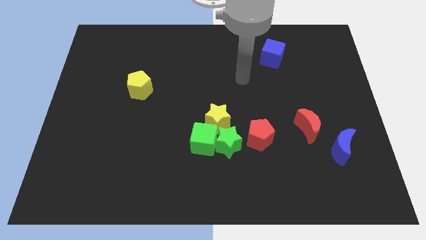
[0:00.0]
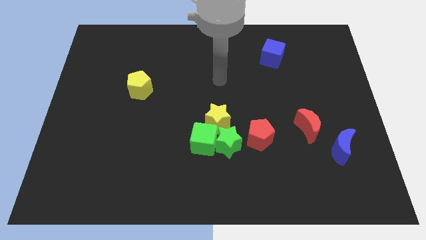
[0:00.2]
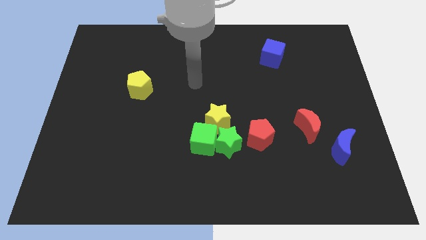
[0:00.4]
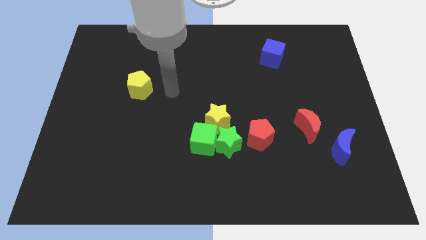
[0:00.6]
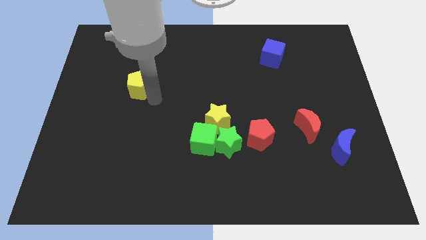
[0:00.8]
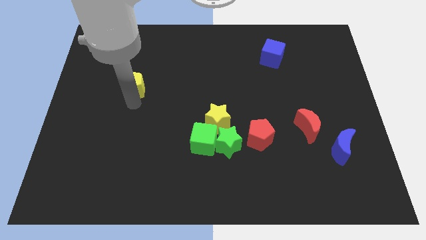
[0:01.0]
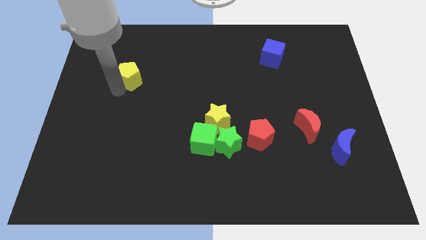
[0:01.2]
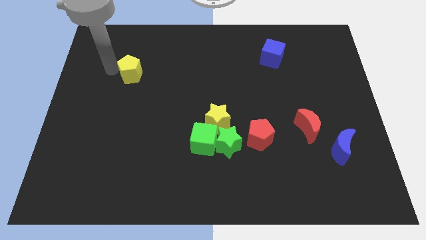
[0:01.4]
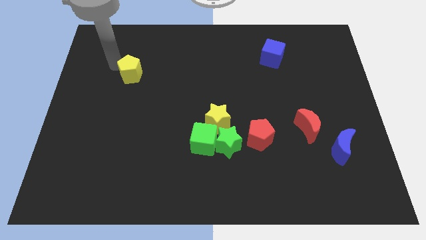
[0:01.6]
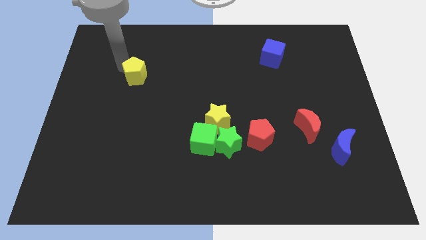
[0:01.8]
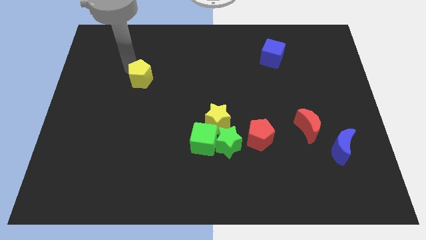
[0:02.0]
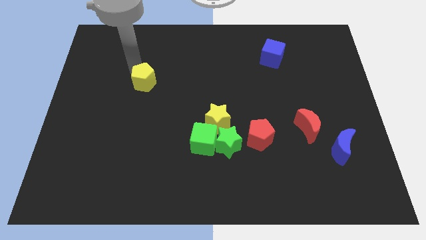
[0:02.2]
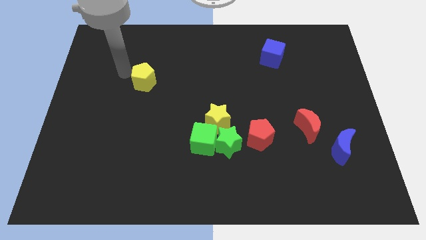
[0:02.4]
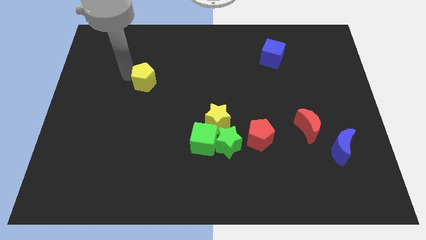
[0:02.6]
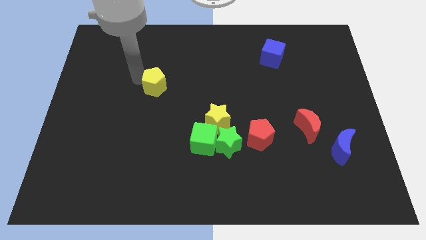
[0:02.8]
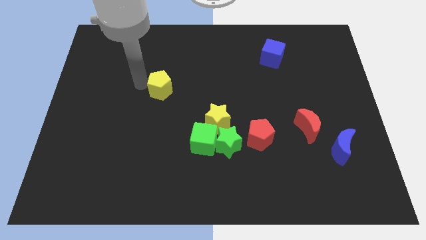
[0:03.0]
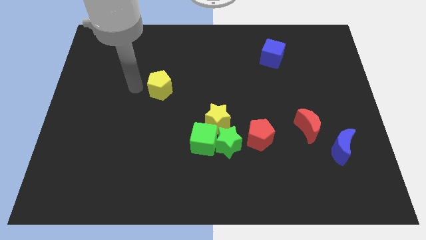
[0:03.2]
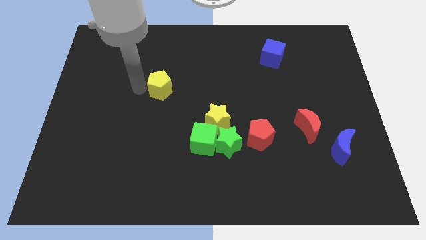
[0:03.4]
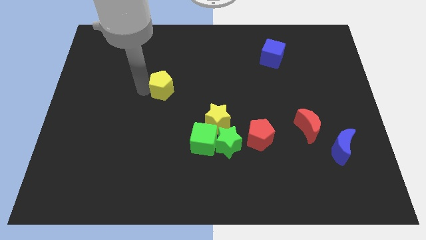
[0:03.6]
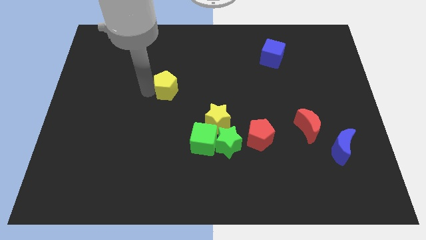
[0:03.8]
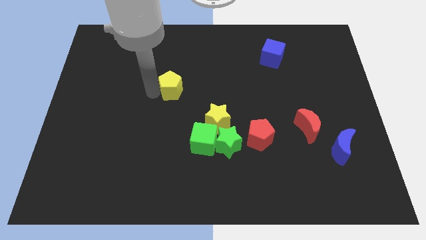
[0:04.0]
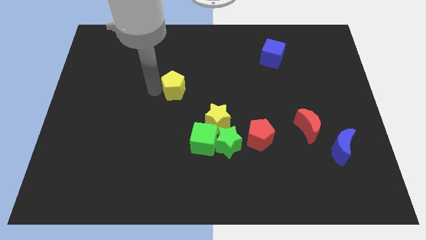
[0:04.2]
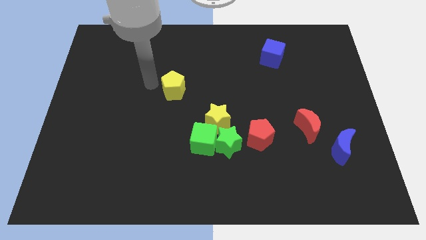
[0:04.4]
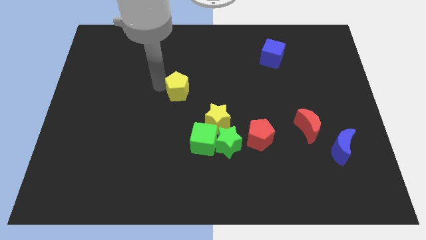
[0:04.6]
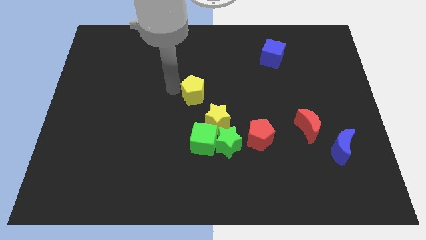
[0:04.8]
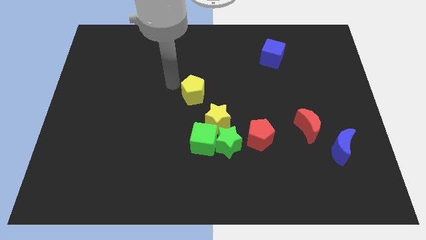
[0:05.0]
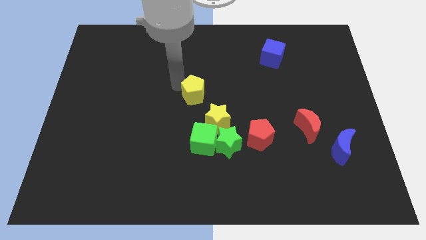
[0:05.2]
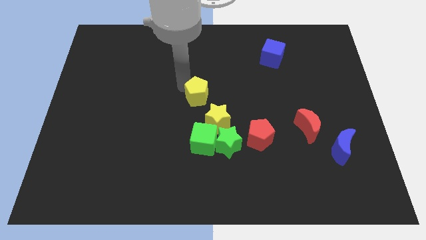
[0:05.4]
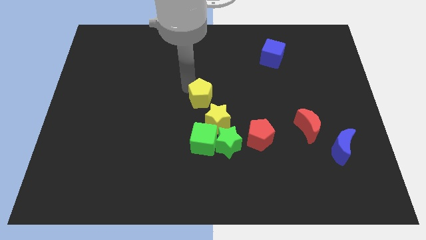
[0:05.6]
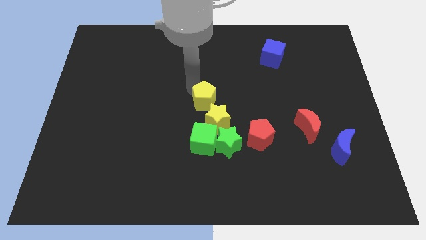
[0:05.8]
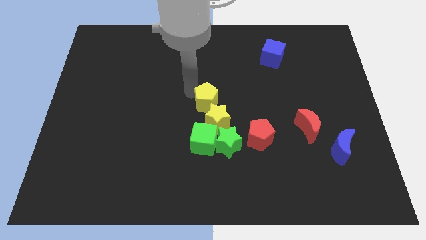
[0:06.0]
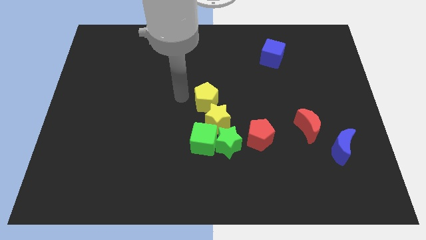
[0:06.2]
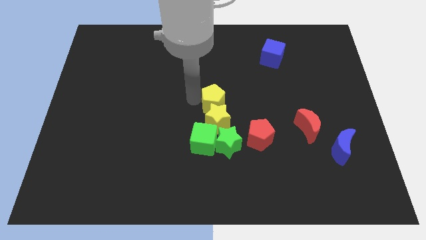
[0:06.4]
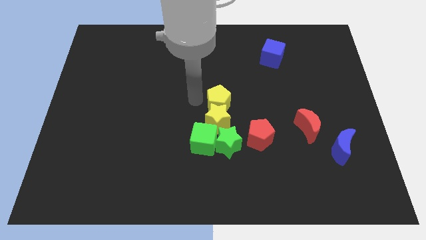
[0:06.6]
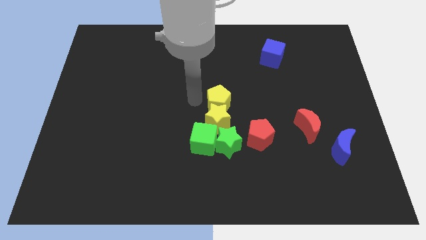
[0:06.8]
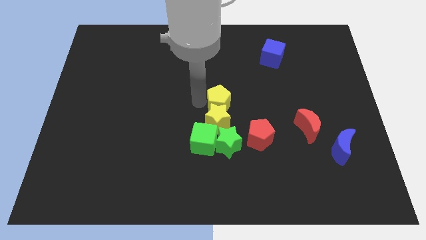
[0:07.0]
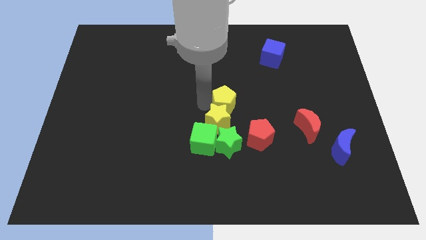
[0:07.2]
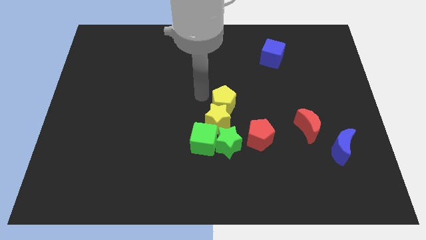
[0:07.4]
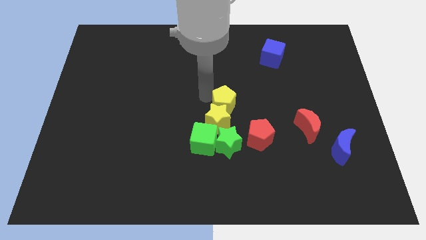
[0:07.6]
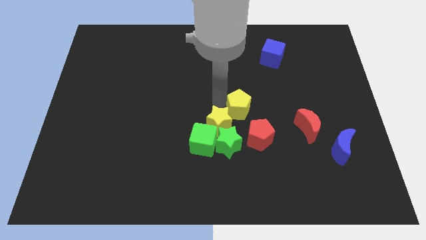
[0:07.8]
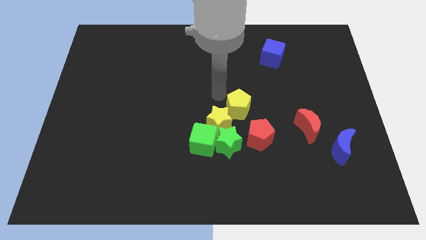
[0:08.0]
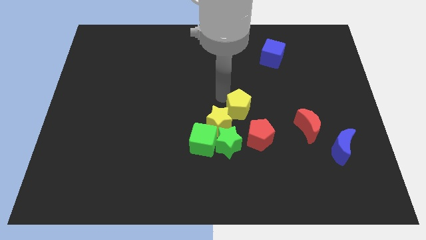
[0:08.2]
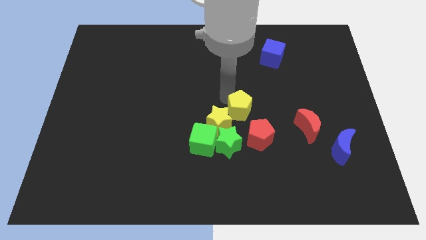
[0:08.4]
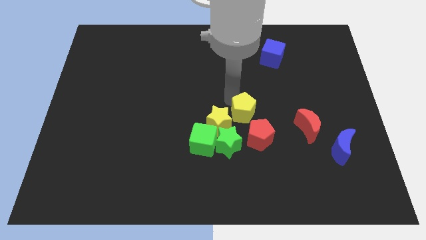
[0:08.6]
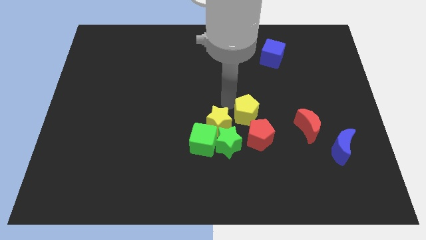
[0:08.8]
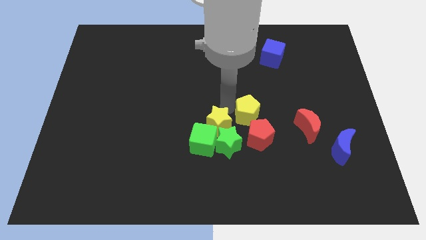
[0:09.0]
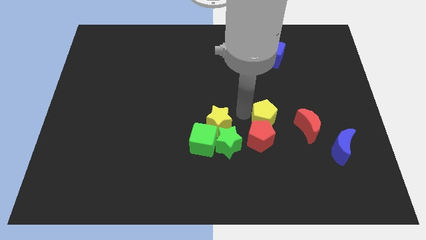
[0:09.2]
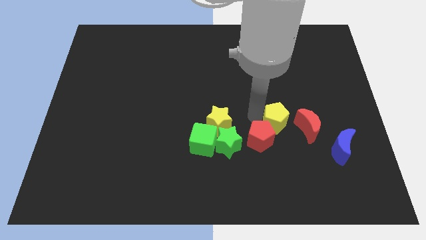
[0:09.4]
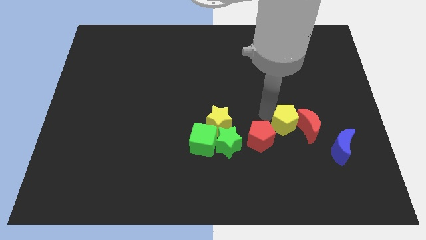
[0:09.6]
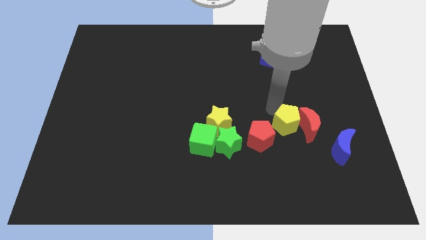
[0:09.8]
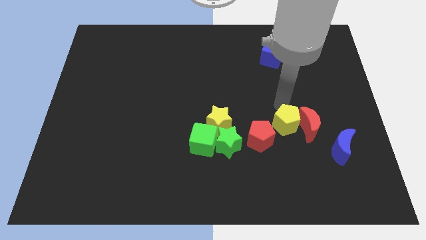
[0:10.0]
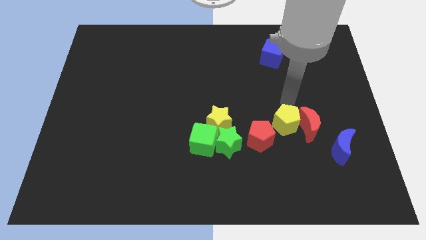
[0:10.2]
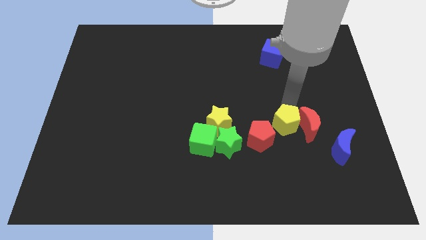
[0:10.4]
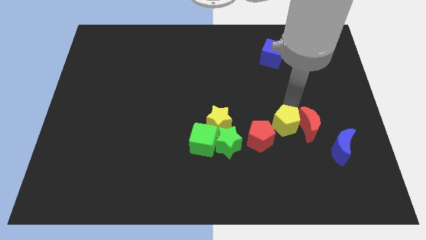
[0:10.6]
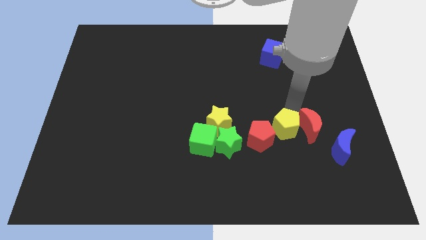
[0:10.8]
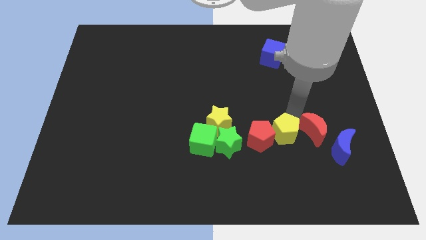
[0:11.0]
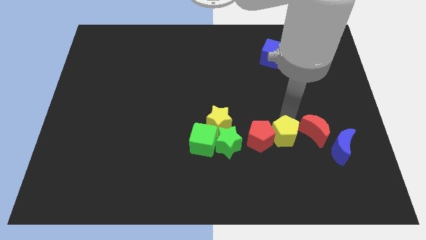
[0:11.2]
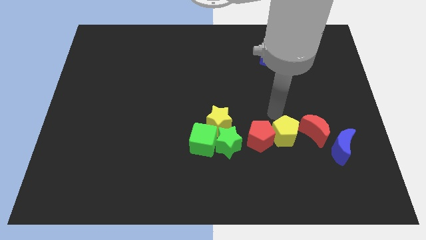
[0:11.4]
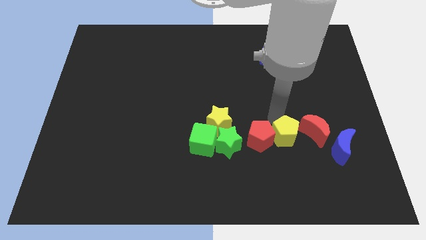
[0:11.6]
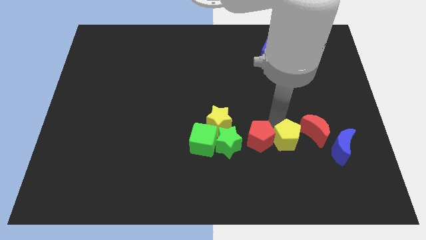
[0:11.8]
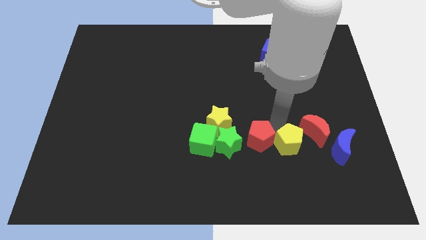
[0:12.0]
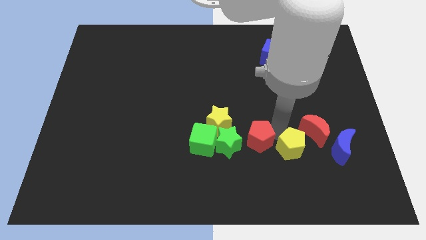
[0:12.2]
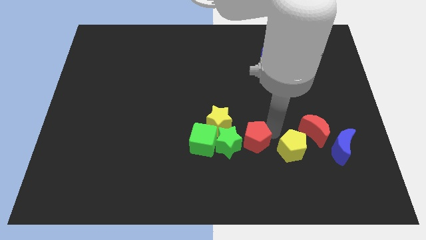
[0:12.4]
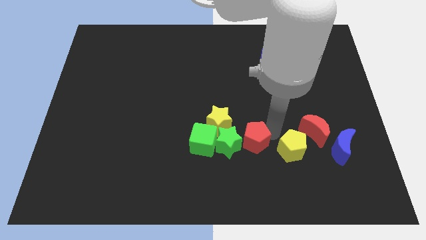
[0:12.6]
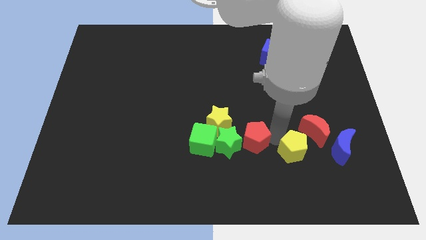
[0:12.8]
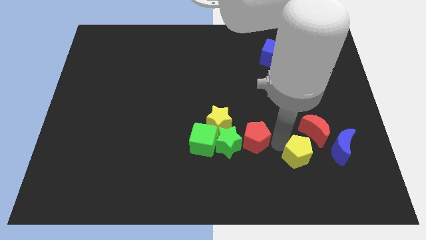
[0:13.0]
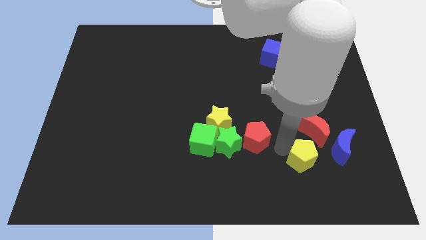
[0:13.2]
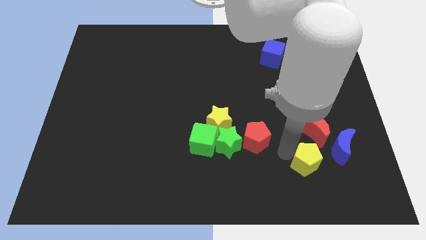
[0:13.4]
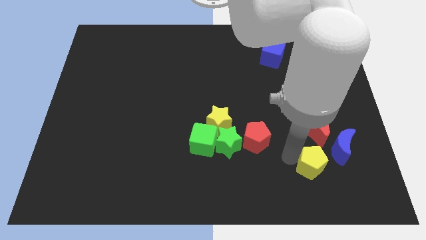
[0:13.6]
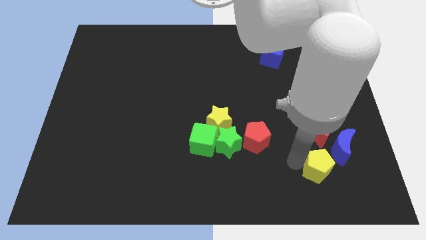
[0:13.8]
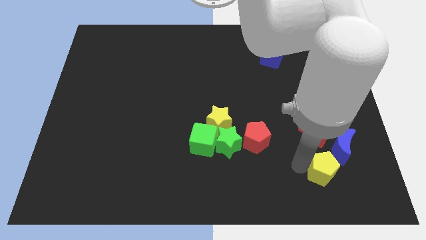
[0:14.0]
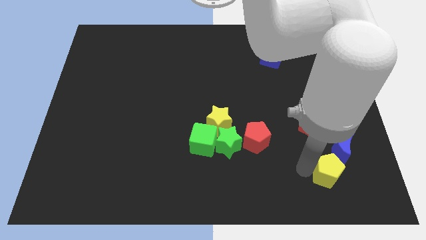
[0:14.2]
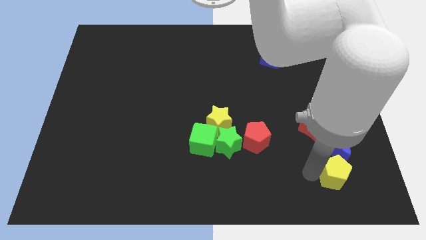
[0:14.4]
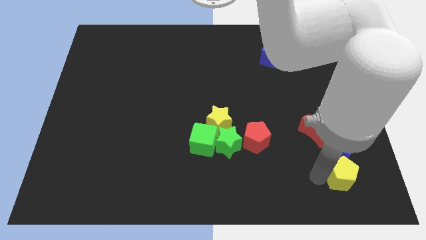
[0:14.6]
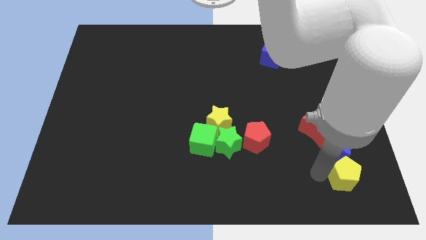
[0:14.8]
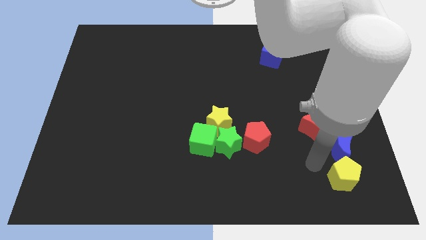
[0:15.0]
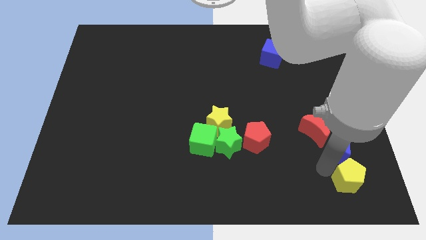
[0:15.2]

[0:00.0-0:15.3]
put the yellow pentagon to the bottom right corner
